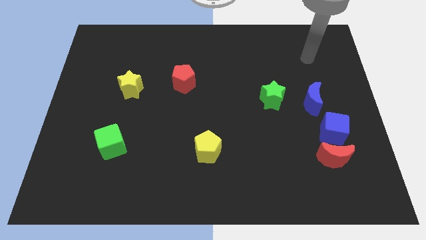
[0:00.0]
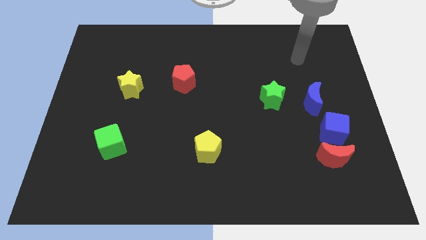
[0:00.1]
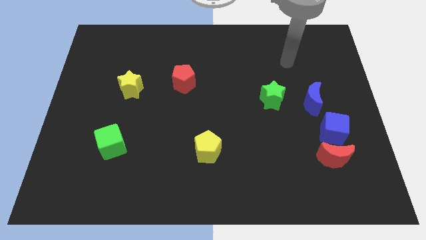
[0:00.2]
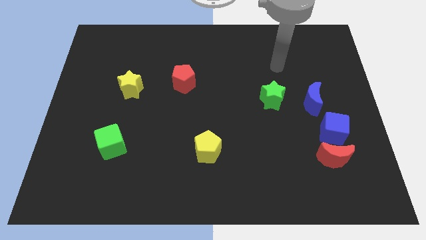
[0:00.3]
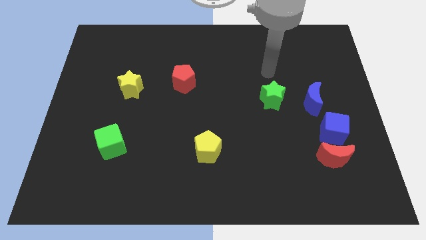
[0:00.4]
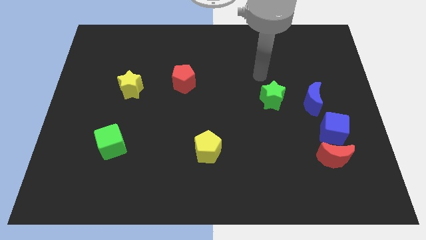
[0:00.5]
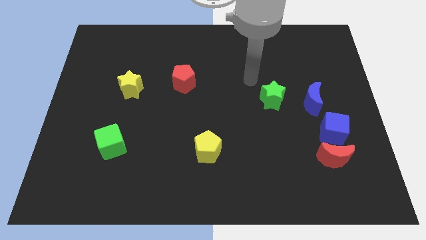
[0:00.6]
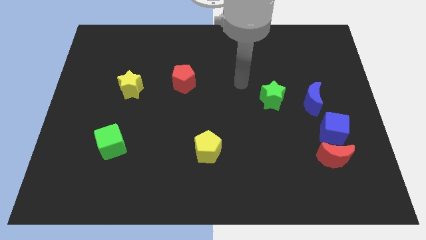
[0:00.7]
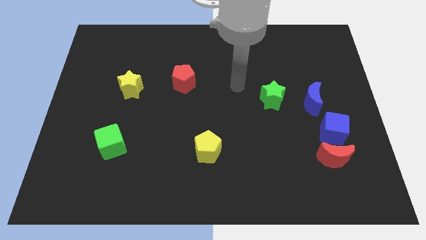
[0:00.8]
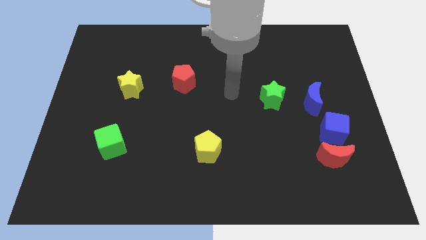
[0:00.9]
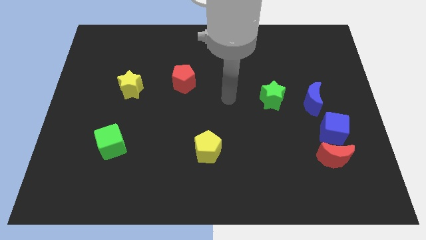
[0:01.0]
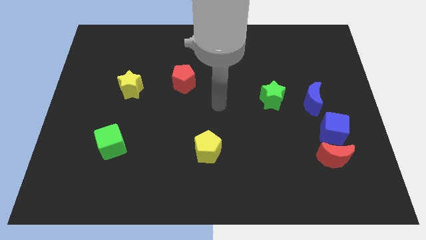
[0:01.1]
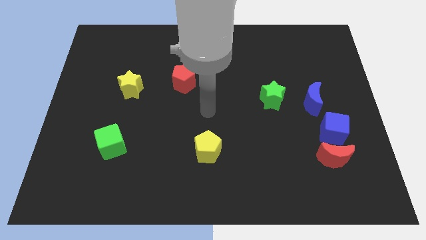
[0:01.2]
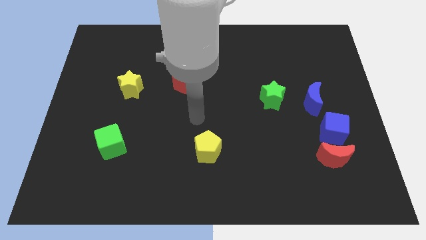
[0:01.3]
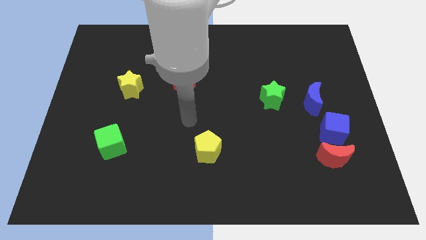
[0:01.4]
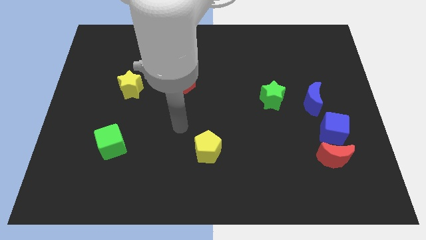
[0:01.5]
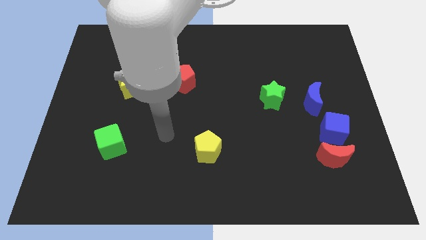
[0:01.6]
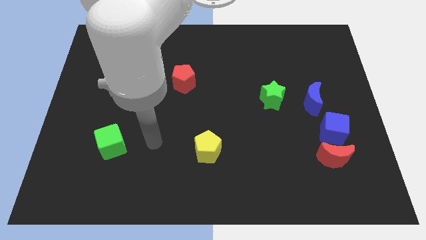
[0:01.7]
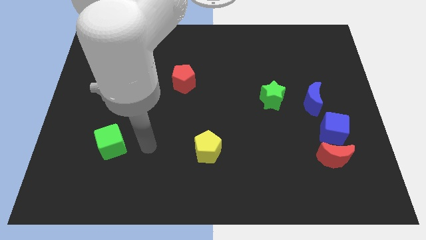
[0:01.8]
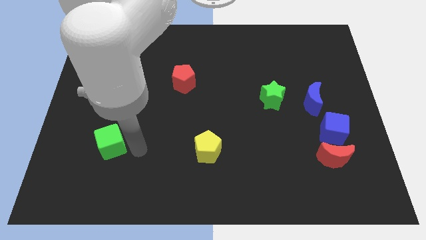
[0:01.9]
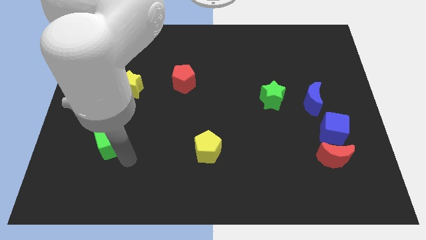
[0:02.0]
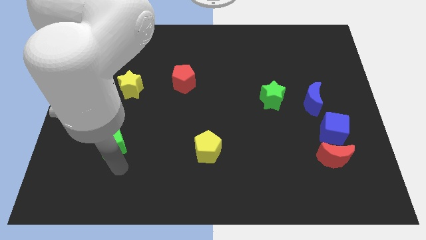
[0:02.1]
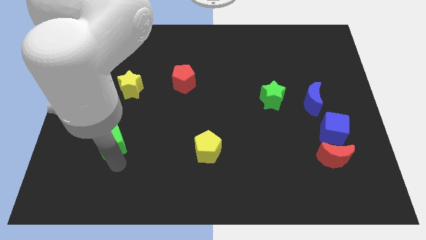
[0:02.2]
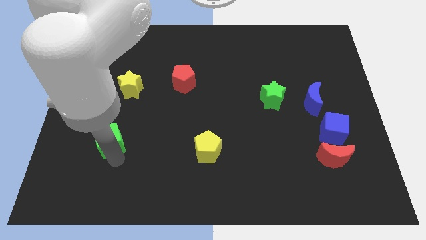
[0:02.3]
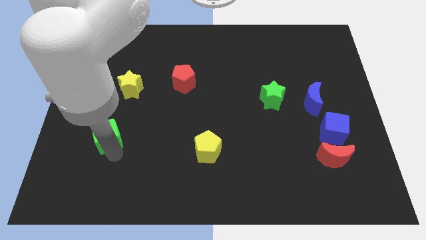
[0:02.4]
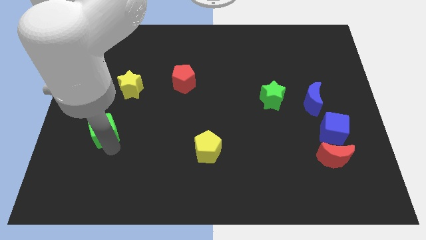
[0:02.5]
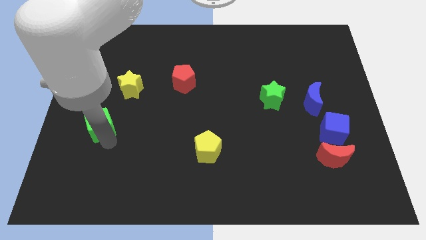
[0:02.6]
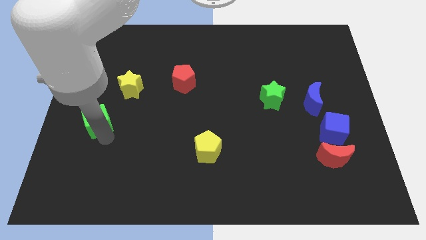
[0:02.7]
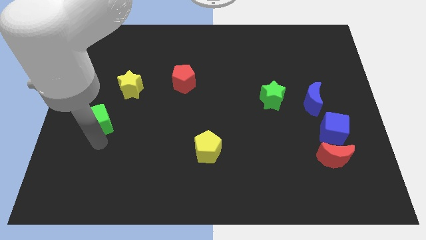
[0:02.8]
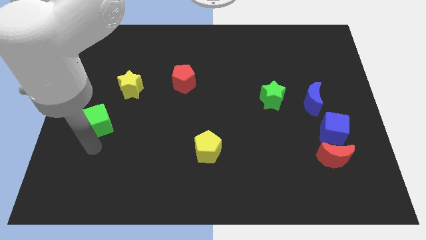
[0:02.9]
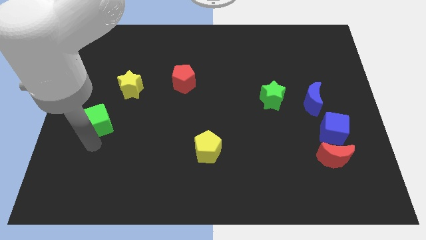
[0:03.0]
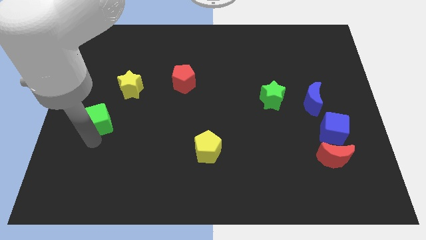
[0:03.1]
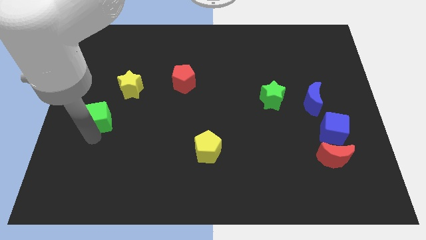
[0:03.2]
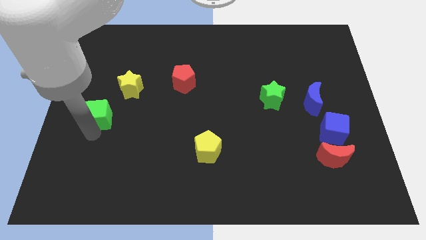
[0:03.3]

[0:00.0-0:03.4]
slide the green cube upwards a little

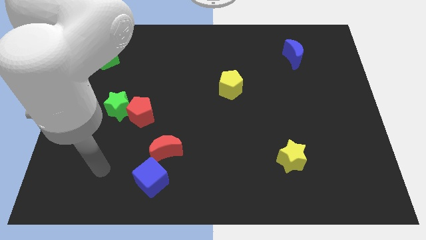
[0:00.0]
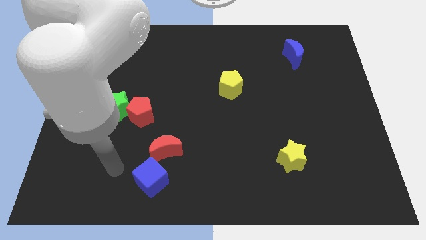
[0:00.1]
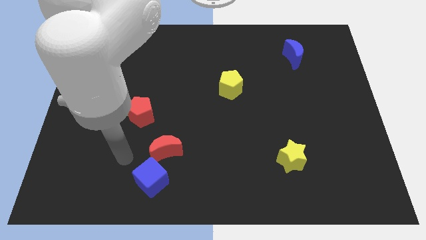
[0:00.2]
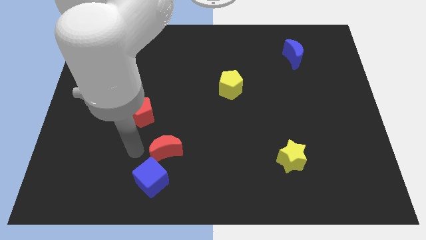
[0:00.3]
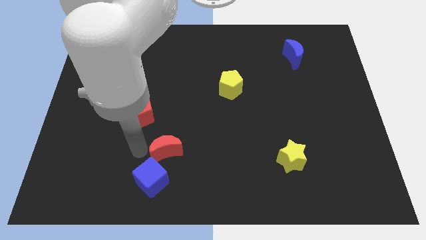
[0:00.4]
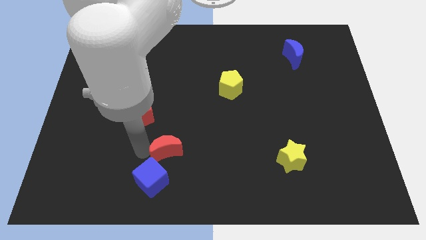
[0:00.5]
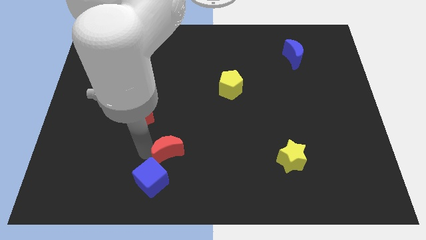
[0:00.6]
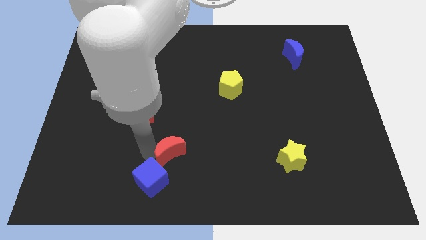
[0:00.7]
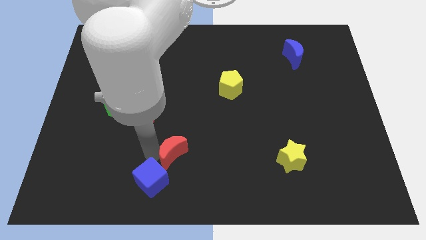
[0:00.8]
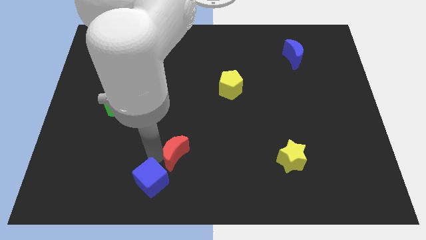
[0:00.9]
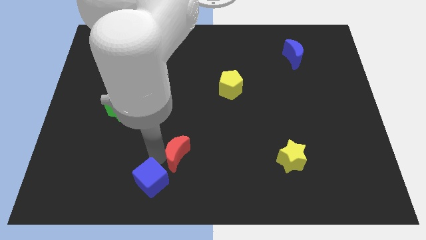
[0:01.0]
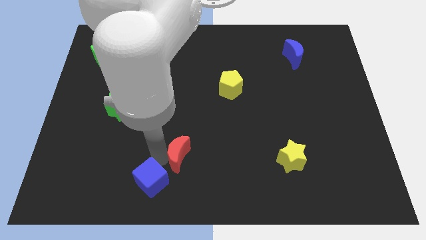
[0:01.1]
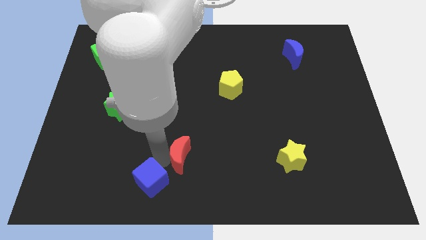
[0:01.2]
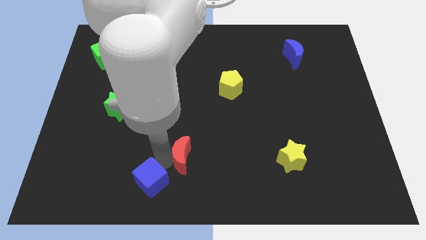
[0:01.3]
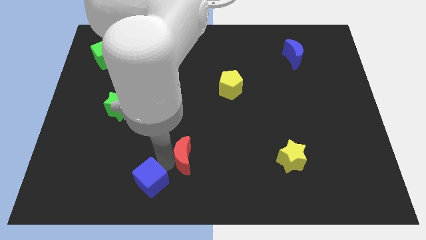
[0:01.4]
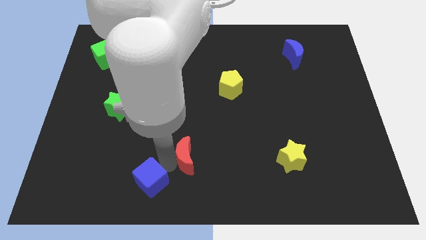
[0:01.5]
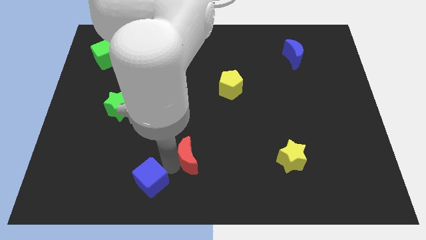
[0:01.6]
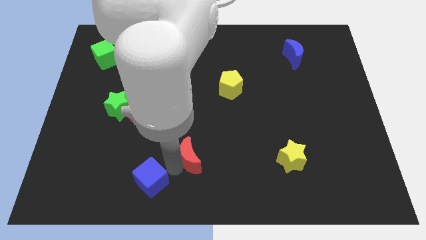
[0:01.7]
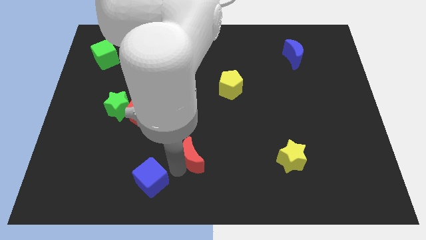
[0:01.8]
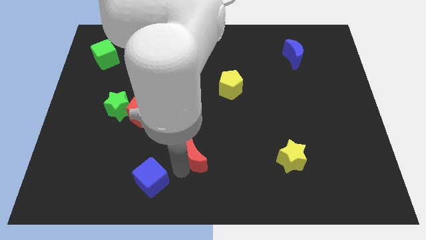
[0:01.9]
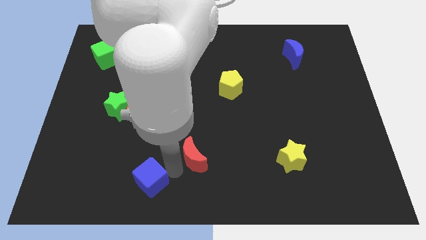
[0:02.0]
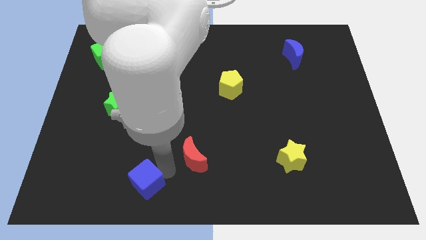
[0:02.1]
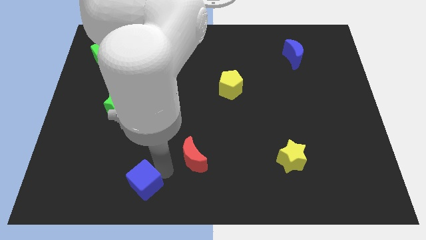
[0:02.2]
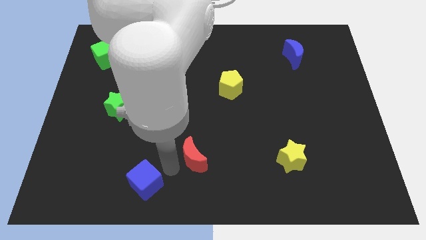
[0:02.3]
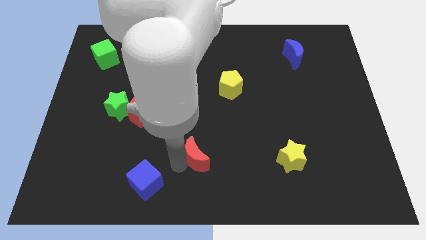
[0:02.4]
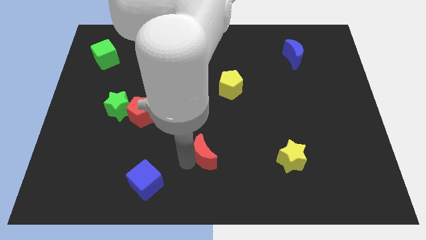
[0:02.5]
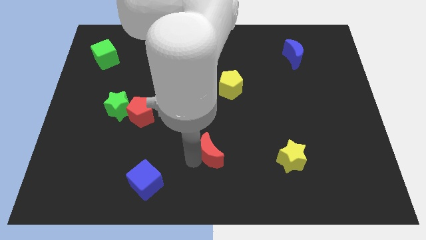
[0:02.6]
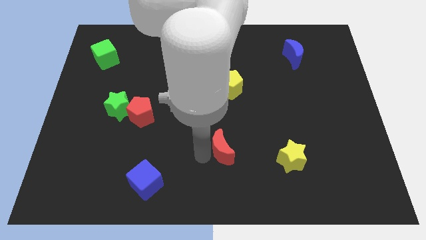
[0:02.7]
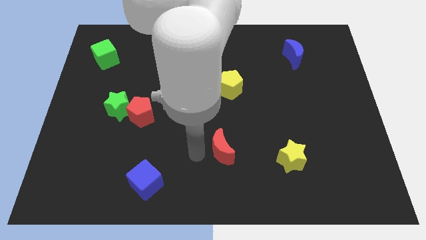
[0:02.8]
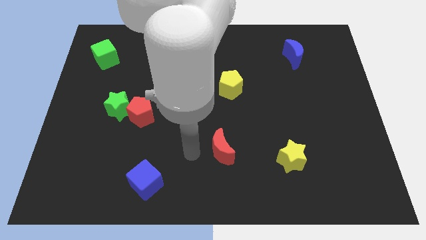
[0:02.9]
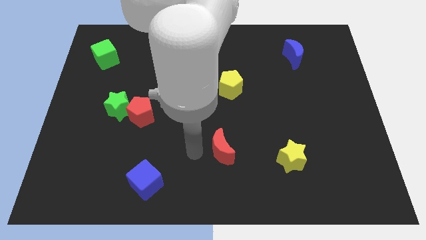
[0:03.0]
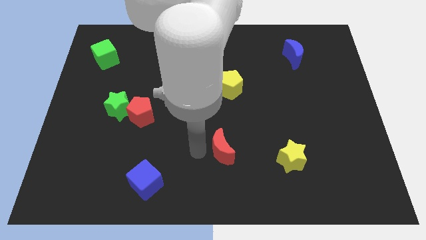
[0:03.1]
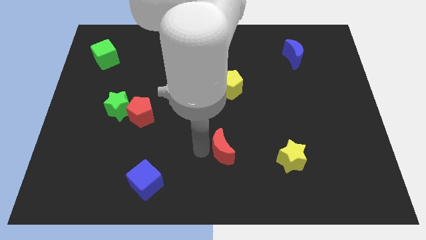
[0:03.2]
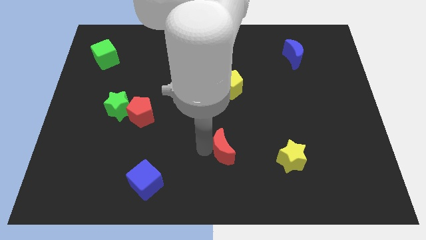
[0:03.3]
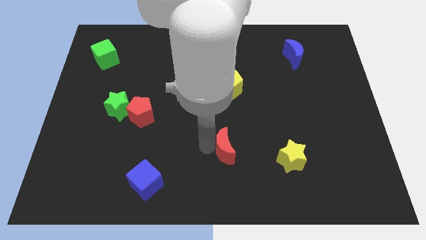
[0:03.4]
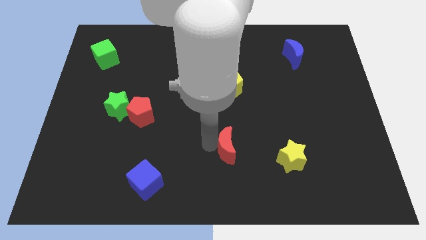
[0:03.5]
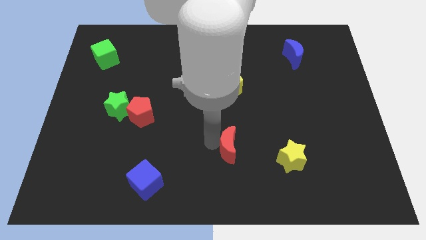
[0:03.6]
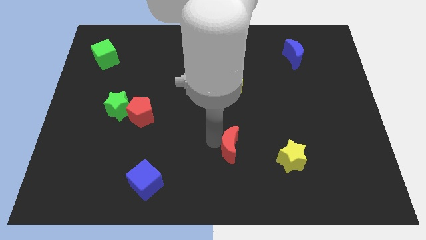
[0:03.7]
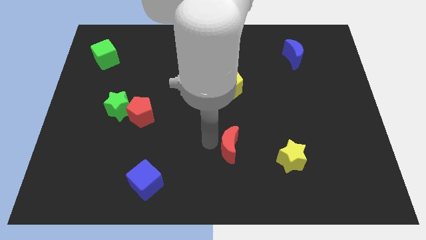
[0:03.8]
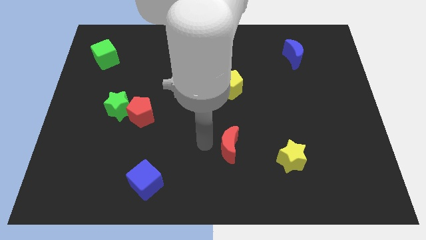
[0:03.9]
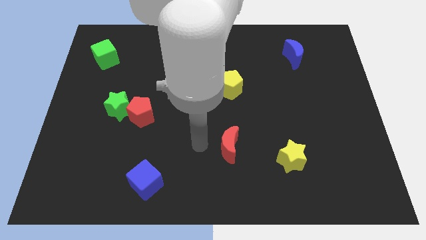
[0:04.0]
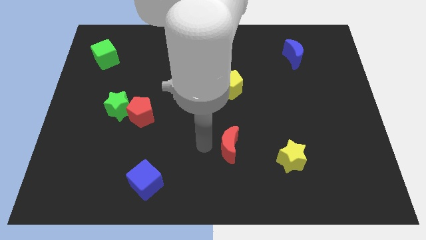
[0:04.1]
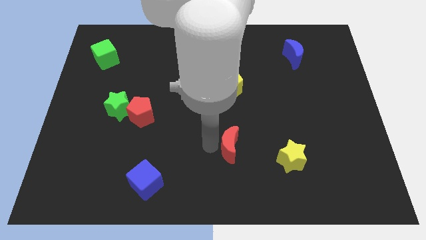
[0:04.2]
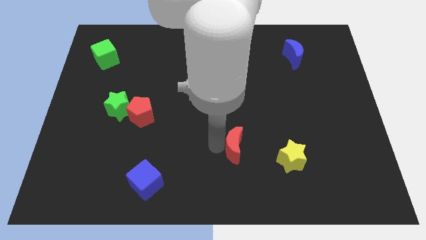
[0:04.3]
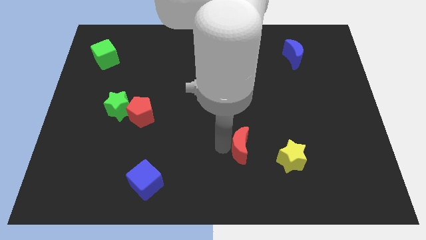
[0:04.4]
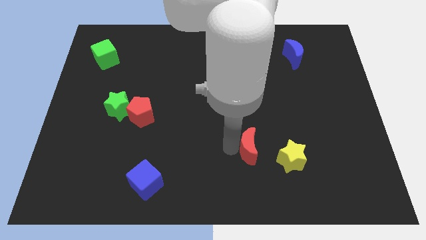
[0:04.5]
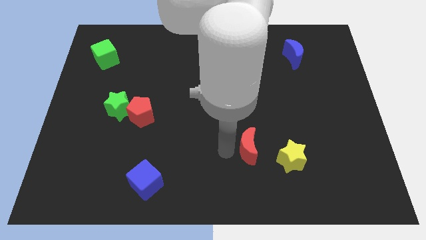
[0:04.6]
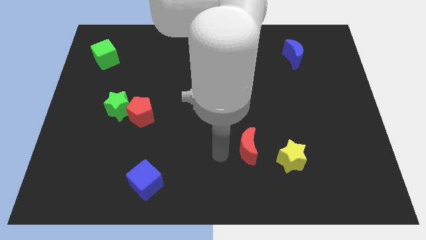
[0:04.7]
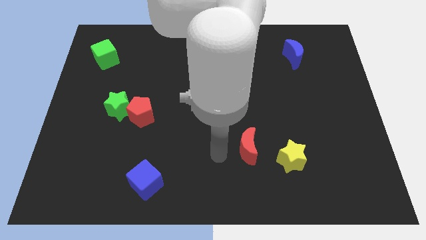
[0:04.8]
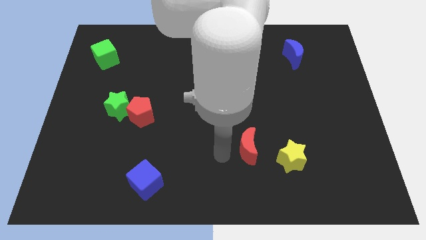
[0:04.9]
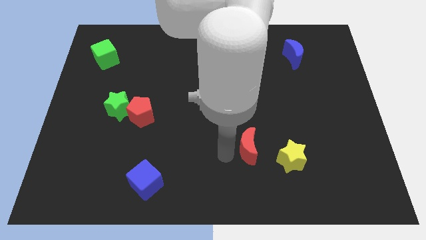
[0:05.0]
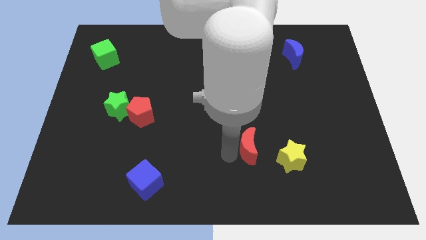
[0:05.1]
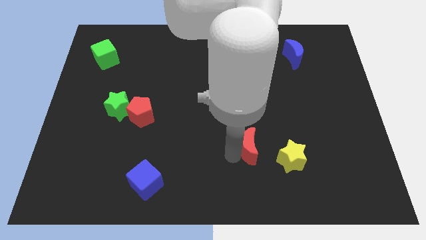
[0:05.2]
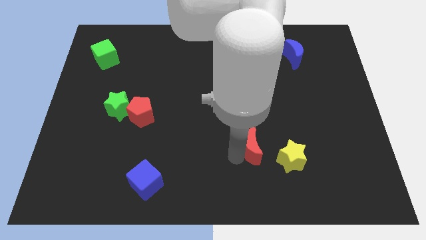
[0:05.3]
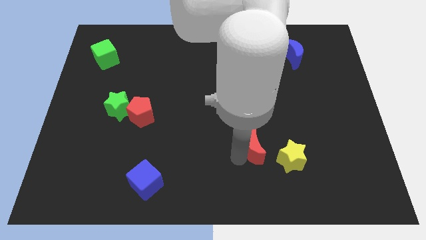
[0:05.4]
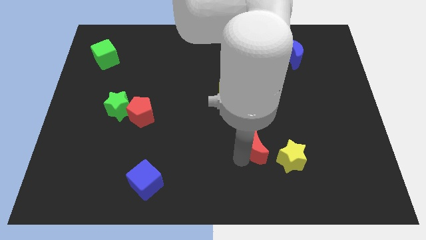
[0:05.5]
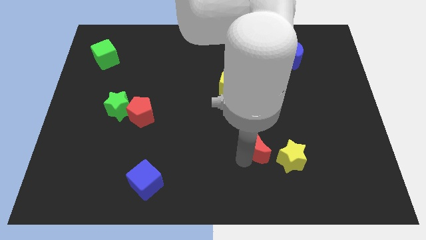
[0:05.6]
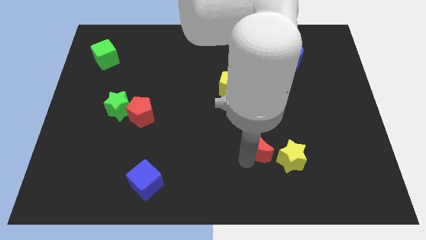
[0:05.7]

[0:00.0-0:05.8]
push the red moon right
